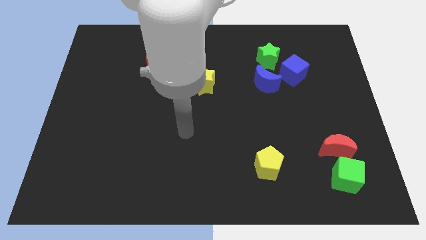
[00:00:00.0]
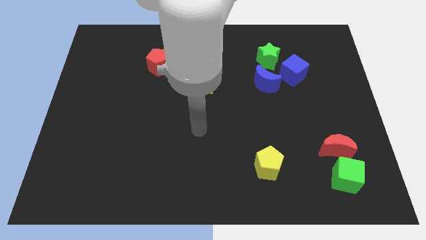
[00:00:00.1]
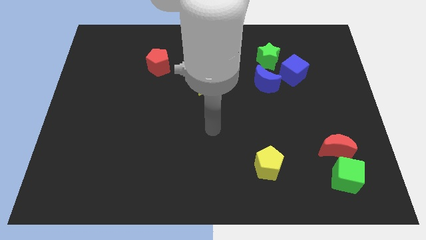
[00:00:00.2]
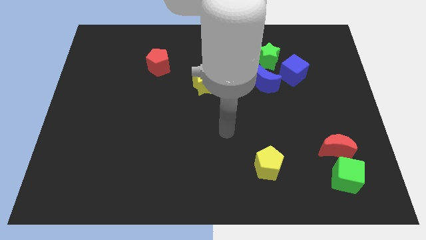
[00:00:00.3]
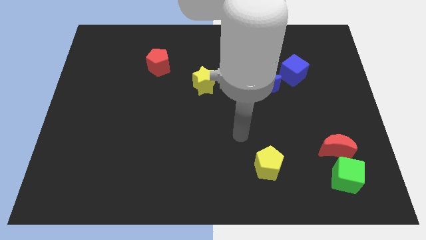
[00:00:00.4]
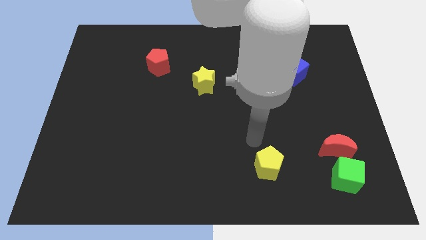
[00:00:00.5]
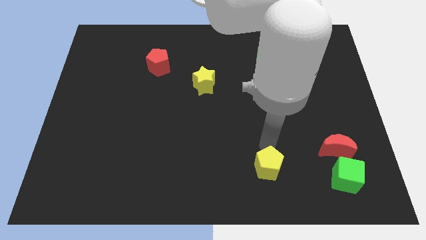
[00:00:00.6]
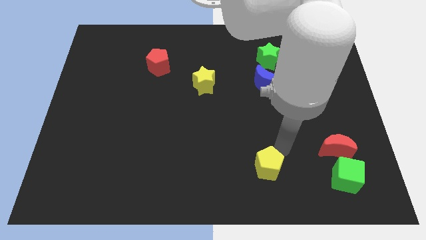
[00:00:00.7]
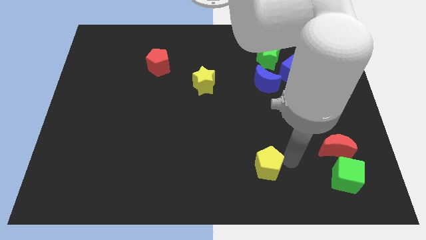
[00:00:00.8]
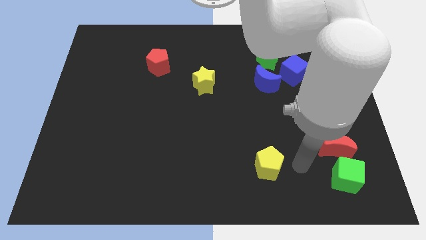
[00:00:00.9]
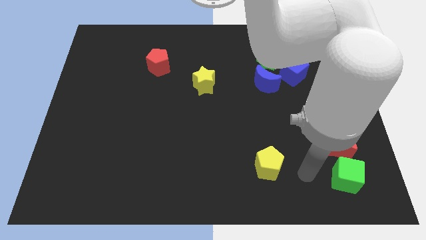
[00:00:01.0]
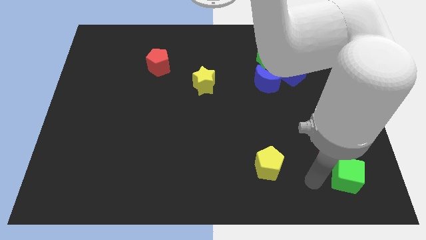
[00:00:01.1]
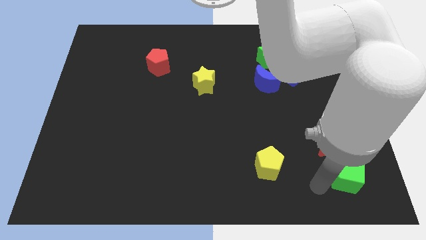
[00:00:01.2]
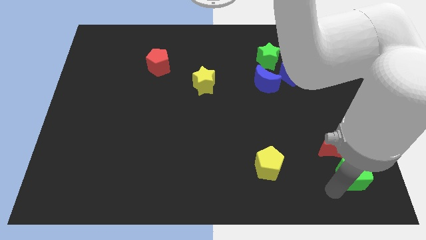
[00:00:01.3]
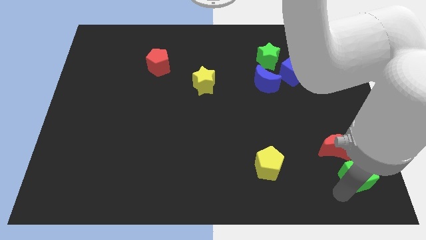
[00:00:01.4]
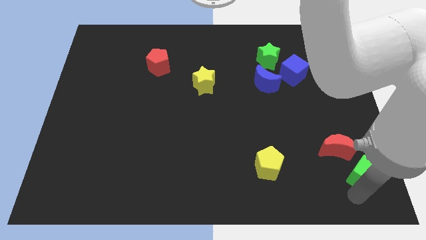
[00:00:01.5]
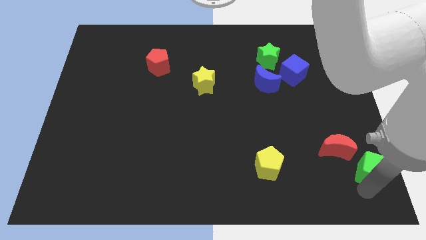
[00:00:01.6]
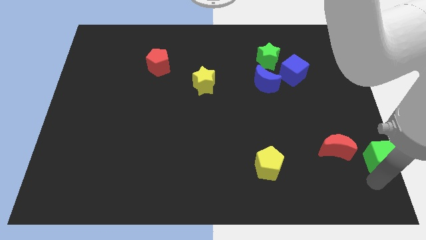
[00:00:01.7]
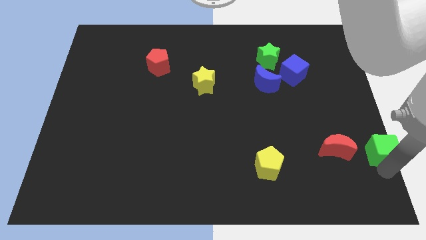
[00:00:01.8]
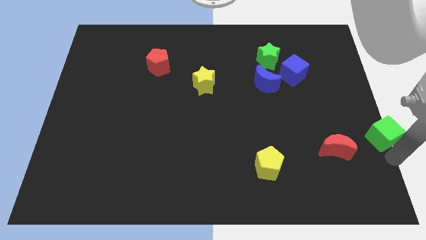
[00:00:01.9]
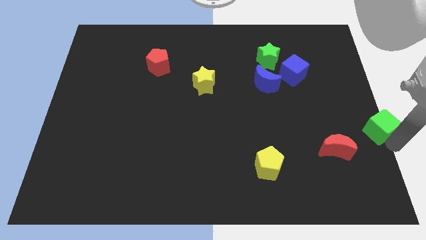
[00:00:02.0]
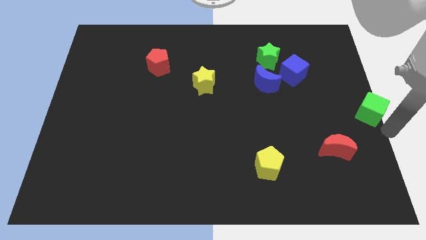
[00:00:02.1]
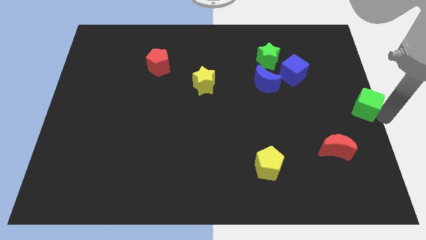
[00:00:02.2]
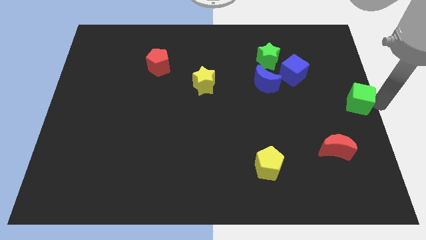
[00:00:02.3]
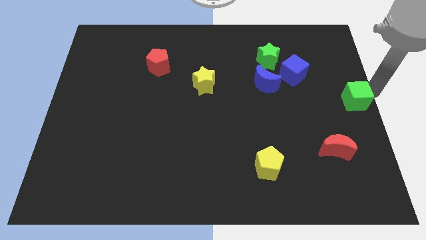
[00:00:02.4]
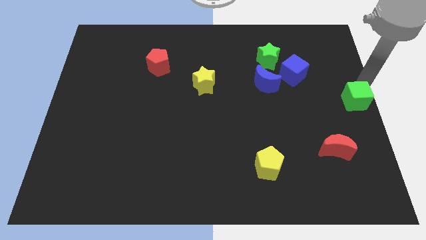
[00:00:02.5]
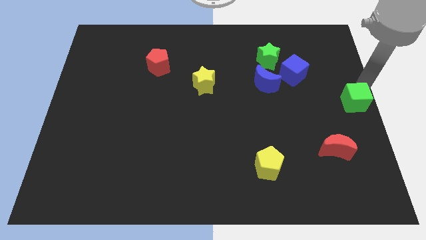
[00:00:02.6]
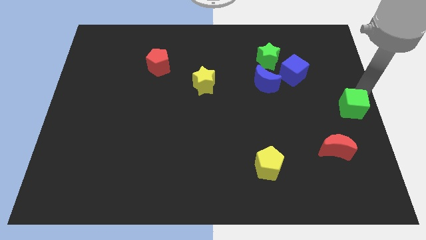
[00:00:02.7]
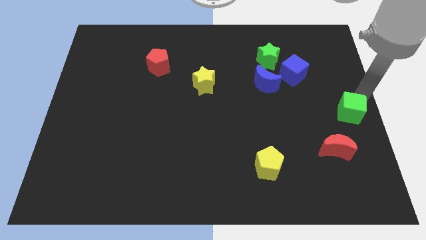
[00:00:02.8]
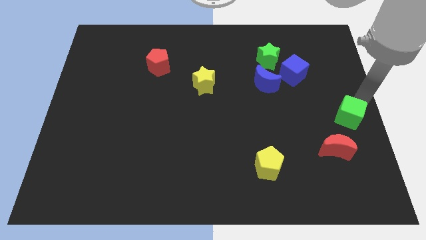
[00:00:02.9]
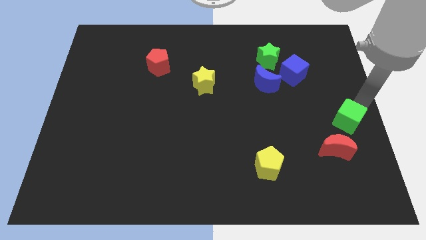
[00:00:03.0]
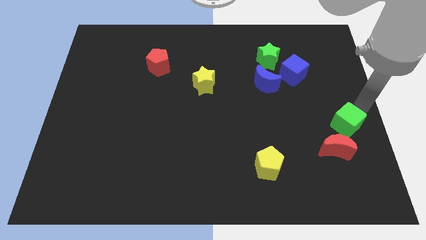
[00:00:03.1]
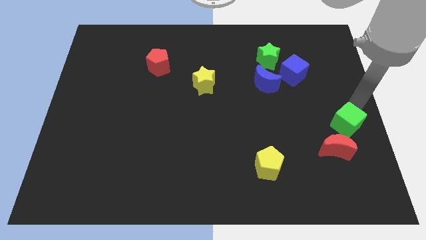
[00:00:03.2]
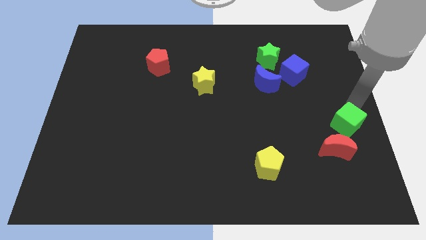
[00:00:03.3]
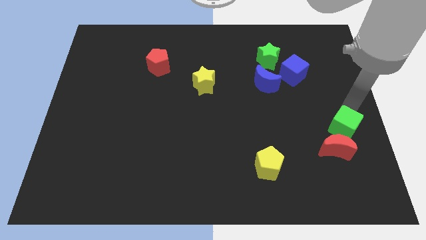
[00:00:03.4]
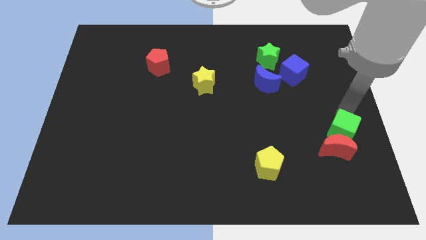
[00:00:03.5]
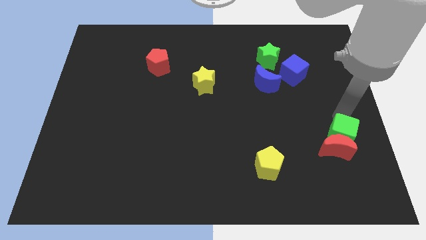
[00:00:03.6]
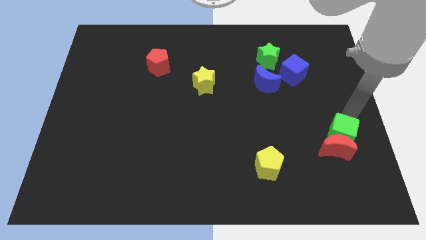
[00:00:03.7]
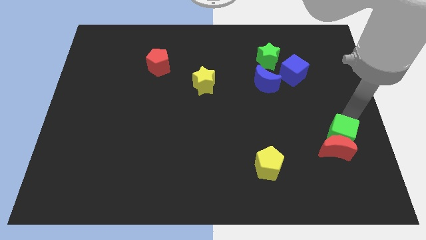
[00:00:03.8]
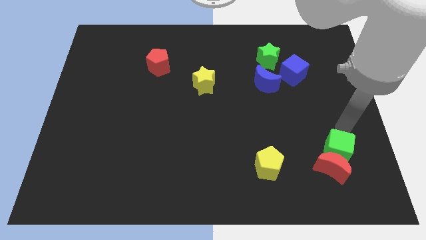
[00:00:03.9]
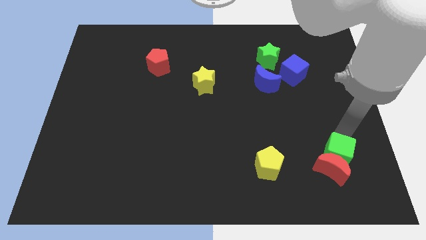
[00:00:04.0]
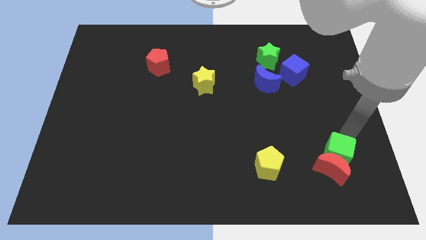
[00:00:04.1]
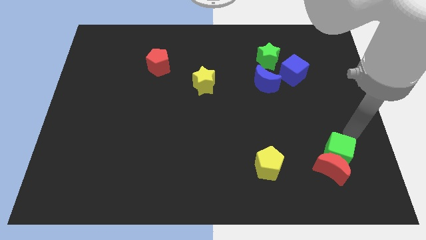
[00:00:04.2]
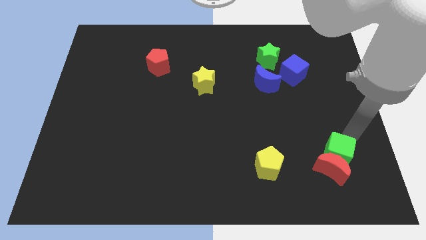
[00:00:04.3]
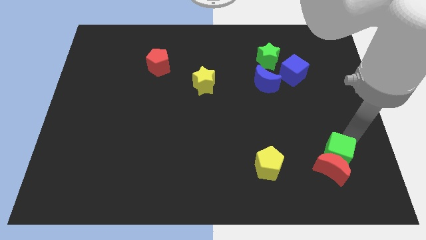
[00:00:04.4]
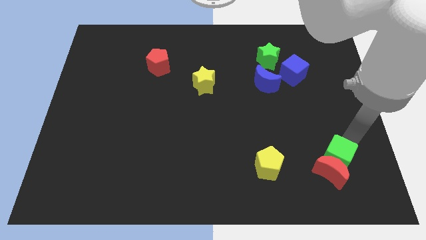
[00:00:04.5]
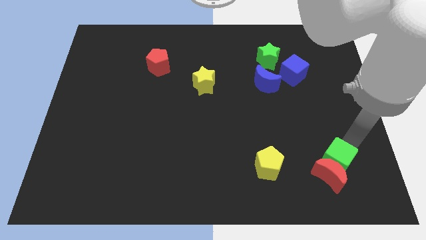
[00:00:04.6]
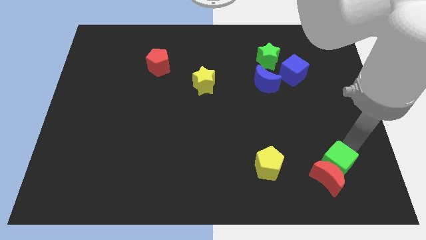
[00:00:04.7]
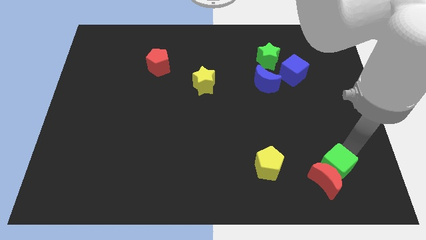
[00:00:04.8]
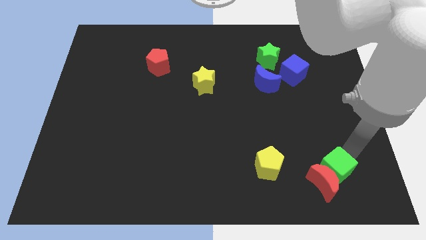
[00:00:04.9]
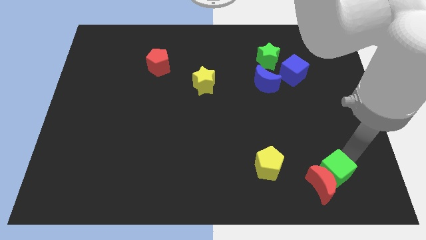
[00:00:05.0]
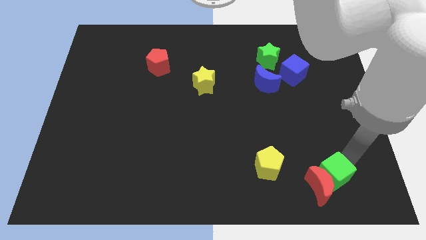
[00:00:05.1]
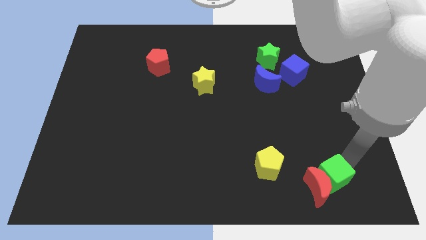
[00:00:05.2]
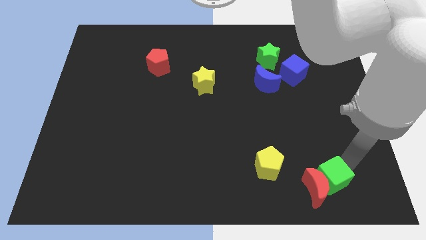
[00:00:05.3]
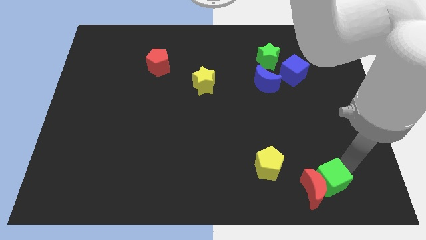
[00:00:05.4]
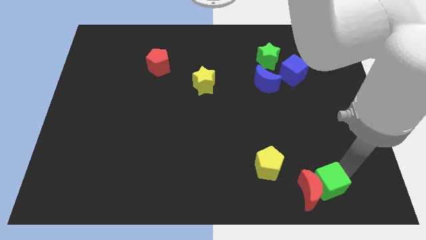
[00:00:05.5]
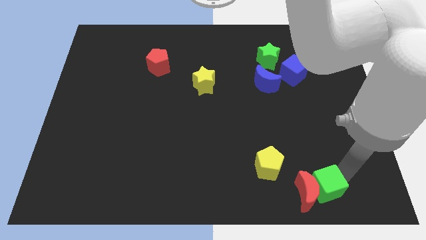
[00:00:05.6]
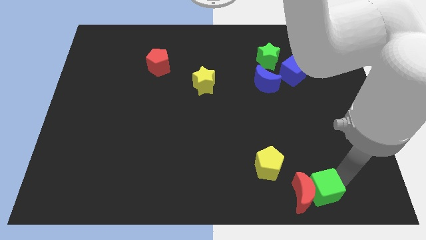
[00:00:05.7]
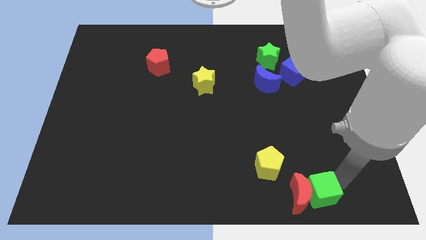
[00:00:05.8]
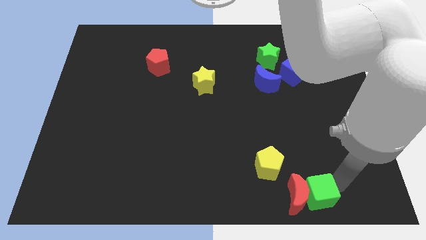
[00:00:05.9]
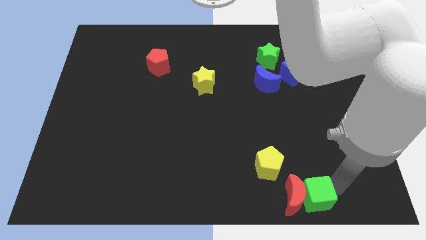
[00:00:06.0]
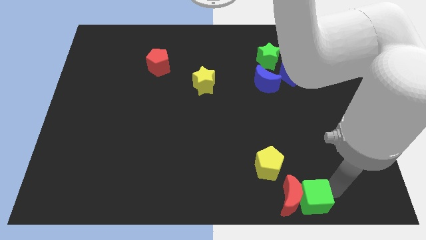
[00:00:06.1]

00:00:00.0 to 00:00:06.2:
slide the green cube to the left somewhat

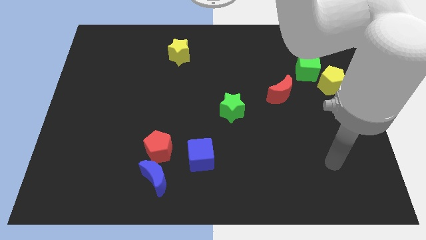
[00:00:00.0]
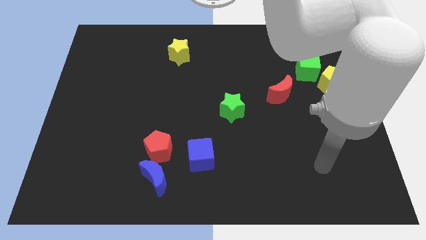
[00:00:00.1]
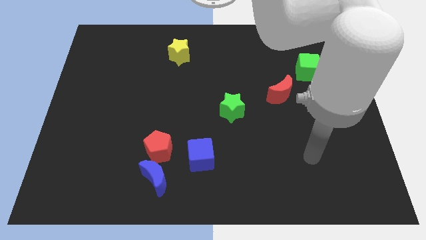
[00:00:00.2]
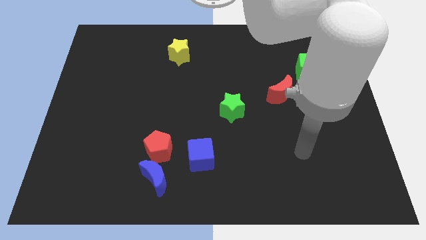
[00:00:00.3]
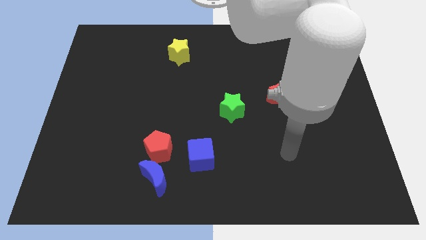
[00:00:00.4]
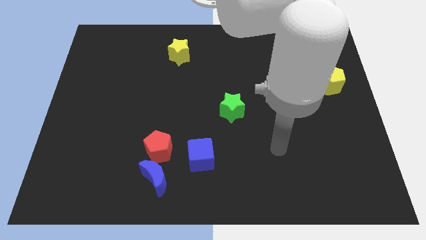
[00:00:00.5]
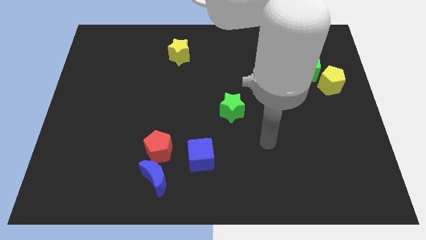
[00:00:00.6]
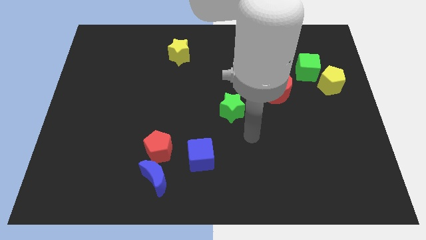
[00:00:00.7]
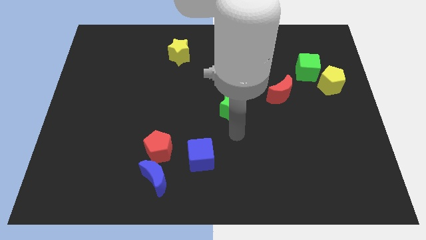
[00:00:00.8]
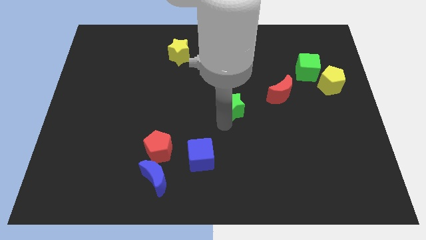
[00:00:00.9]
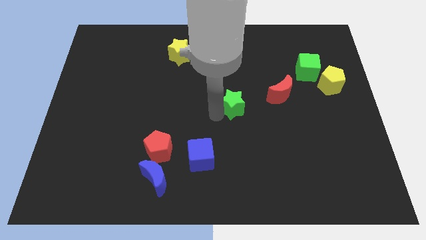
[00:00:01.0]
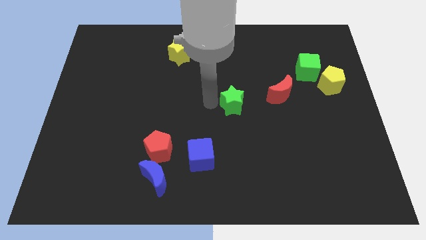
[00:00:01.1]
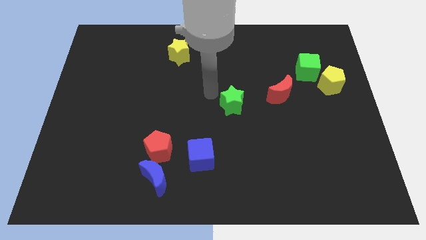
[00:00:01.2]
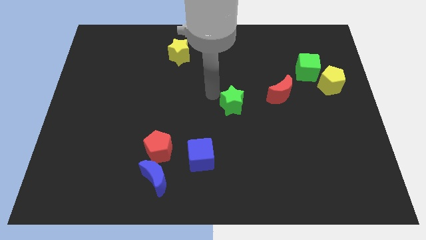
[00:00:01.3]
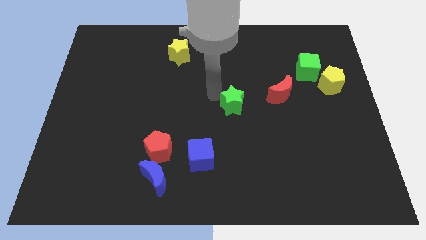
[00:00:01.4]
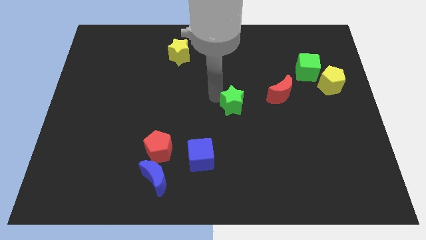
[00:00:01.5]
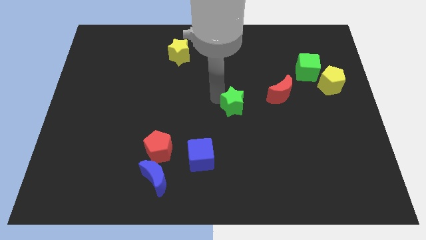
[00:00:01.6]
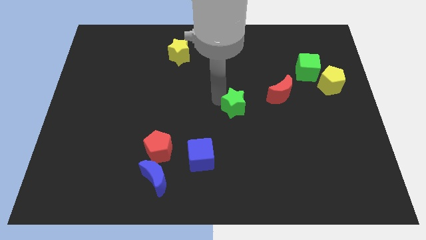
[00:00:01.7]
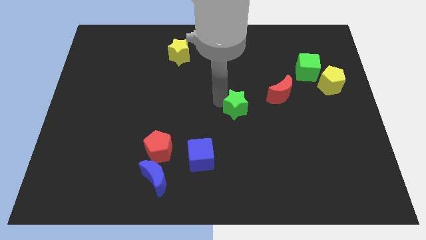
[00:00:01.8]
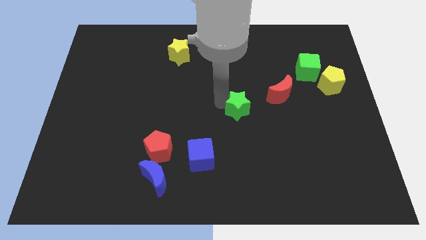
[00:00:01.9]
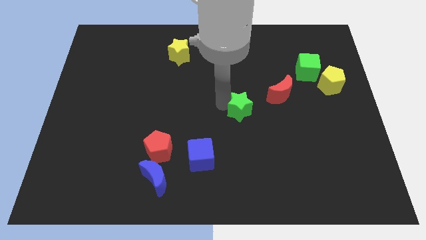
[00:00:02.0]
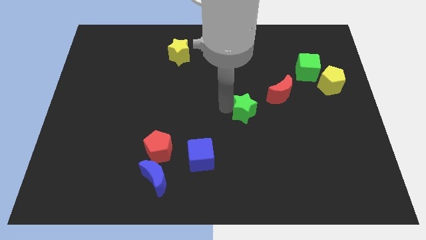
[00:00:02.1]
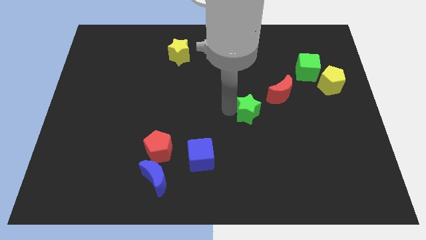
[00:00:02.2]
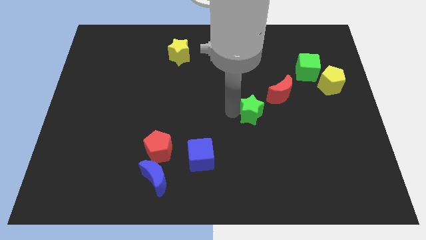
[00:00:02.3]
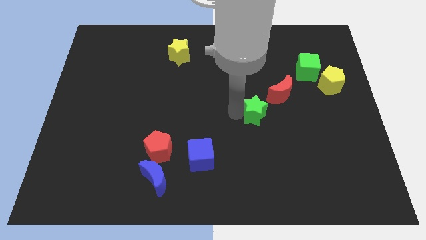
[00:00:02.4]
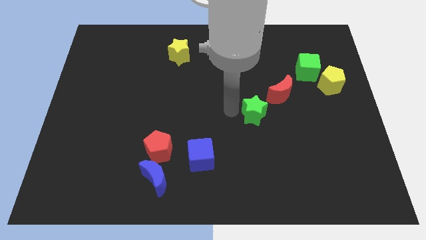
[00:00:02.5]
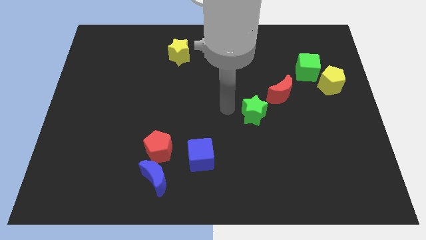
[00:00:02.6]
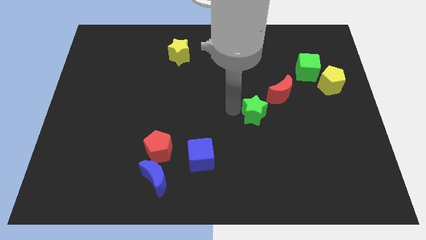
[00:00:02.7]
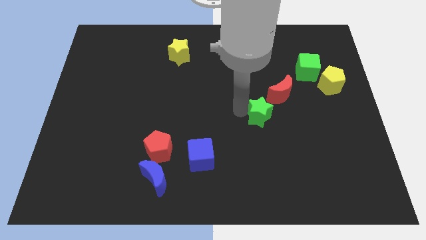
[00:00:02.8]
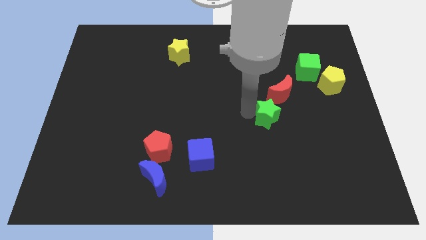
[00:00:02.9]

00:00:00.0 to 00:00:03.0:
slightly push the green star to the right
